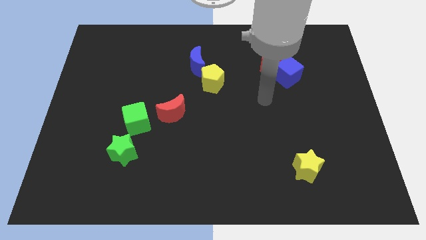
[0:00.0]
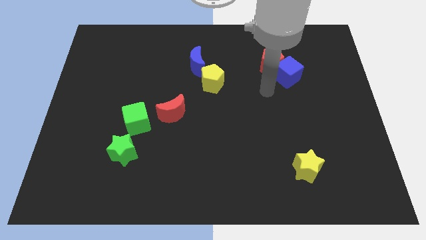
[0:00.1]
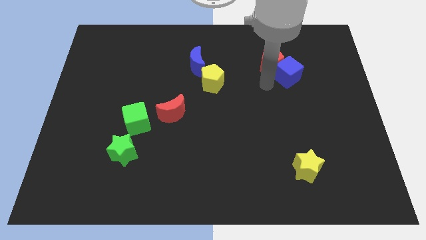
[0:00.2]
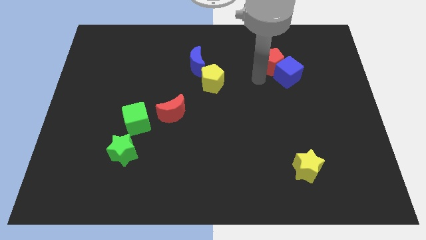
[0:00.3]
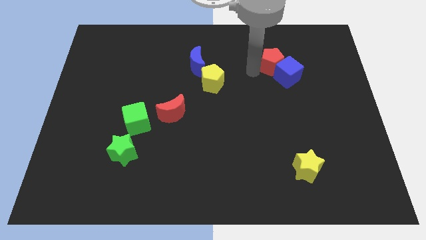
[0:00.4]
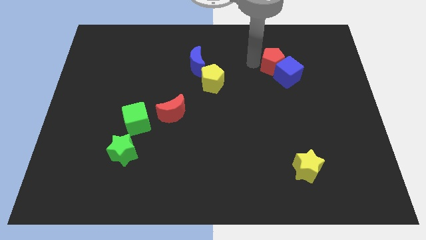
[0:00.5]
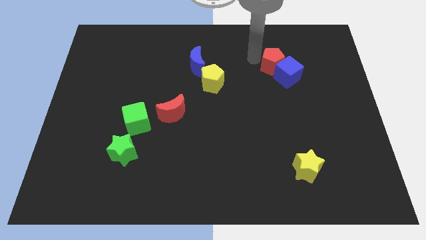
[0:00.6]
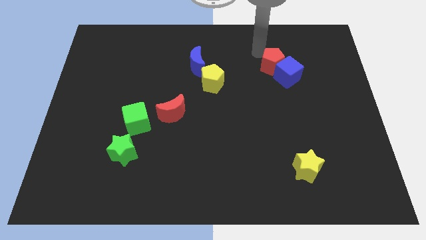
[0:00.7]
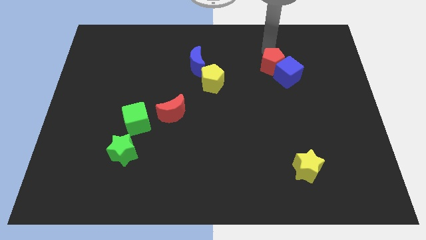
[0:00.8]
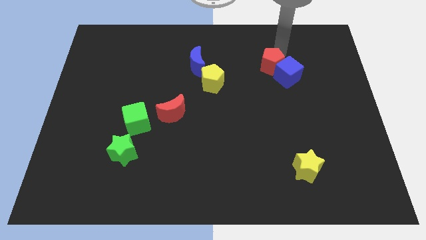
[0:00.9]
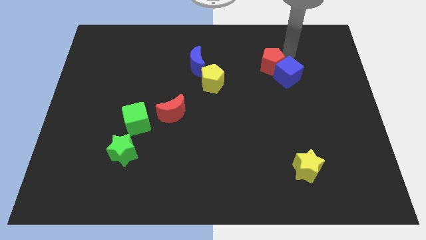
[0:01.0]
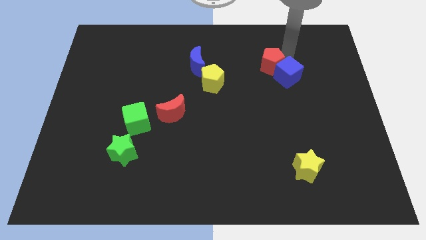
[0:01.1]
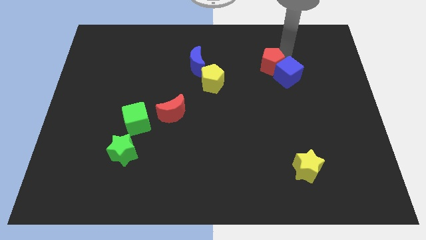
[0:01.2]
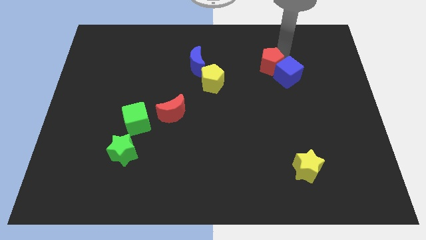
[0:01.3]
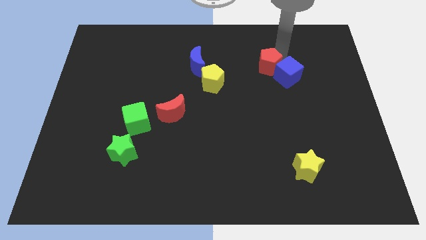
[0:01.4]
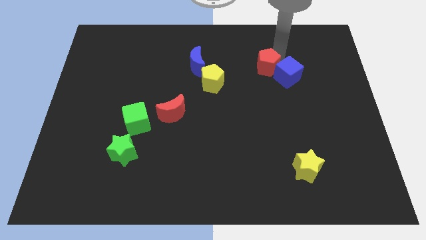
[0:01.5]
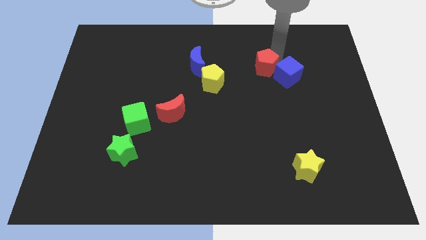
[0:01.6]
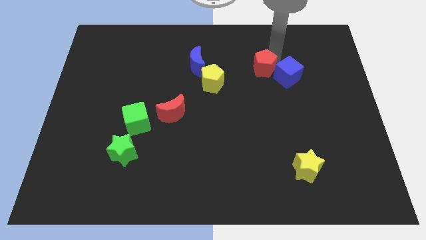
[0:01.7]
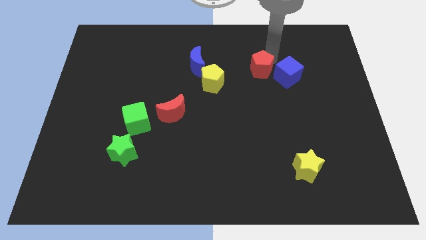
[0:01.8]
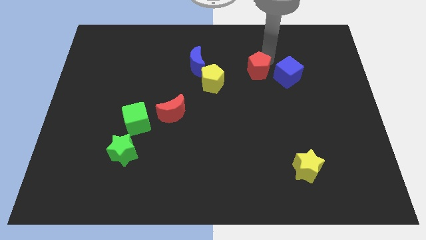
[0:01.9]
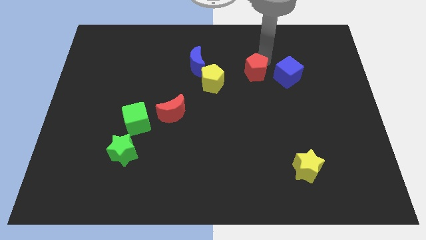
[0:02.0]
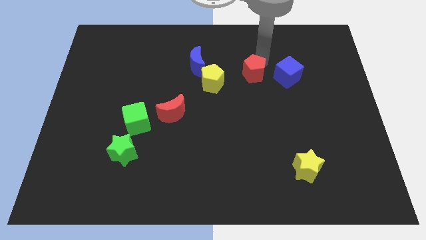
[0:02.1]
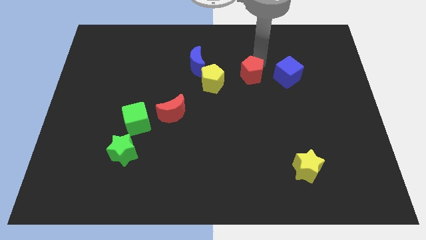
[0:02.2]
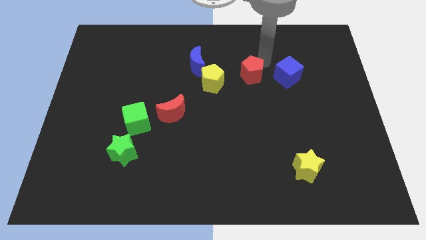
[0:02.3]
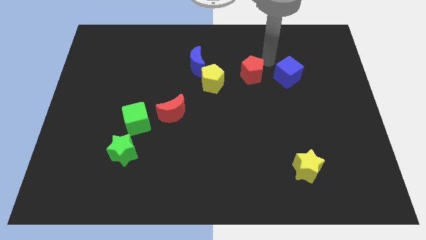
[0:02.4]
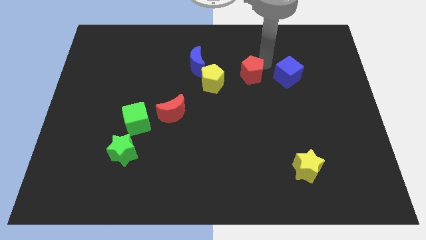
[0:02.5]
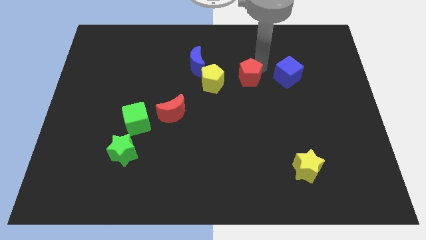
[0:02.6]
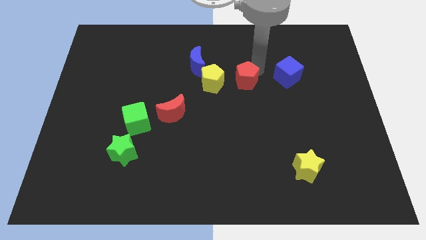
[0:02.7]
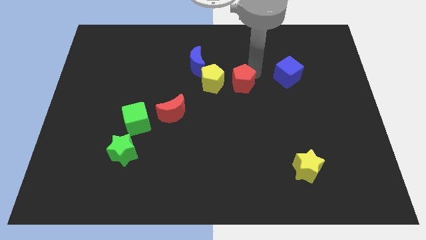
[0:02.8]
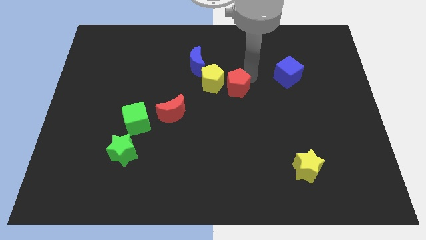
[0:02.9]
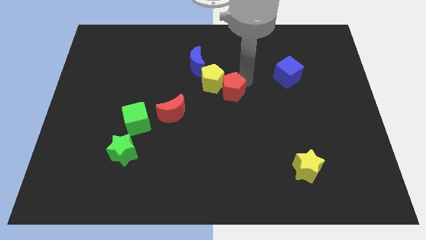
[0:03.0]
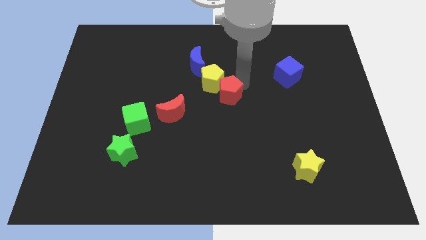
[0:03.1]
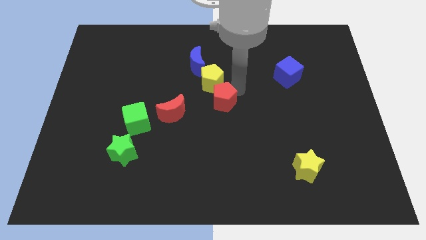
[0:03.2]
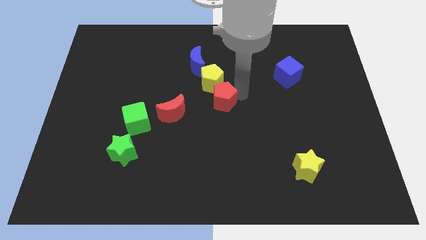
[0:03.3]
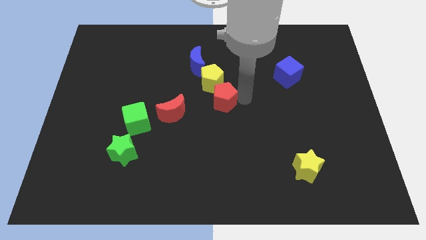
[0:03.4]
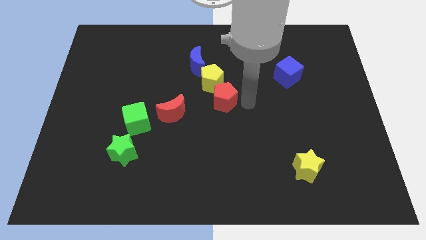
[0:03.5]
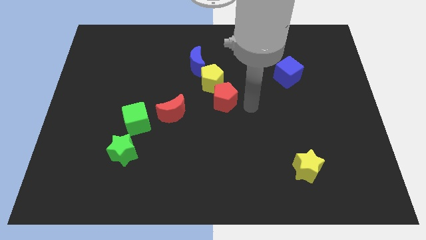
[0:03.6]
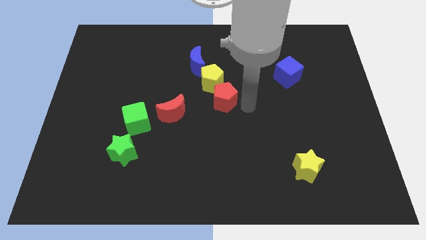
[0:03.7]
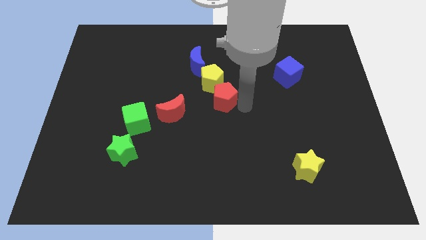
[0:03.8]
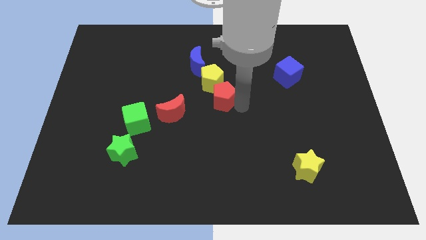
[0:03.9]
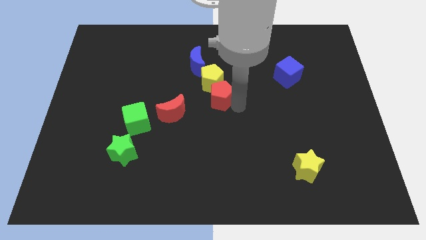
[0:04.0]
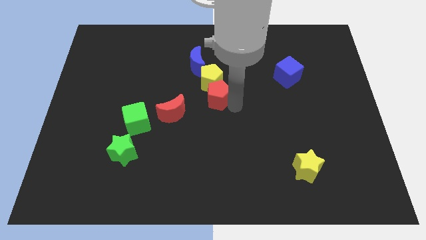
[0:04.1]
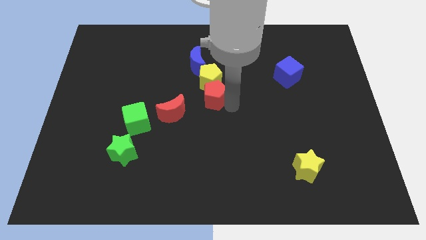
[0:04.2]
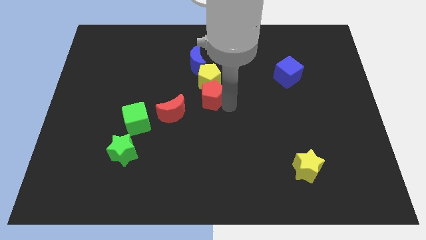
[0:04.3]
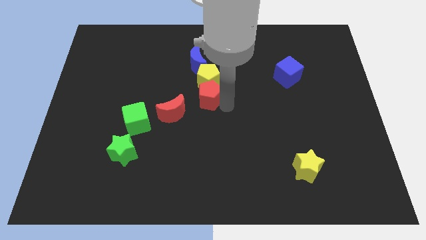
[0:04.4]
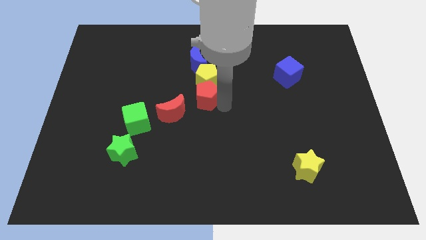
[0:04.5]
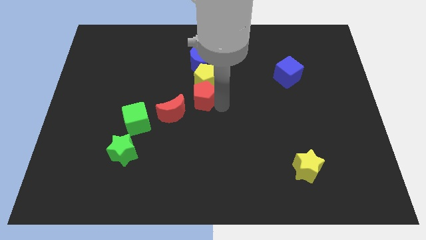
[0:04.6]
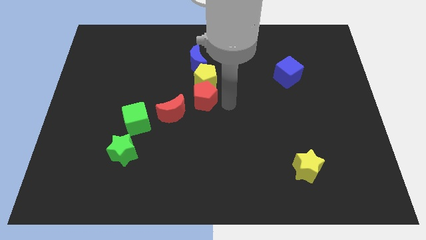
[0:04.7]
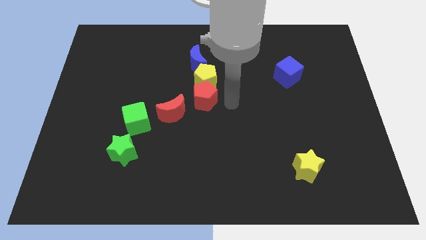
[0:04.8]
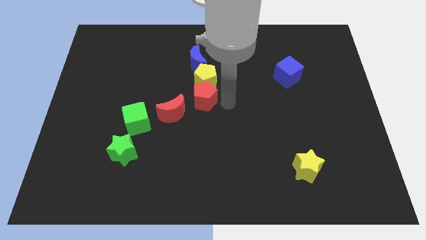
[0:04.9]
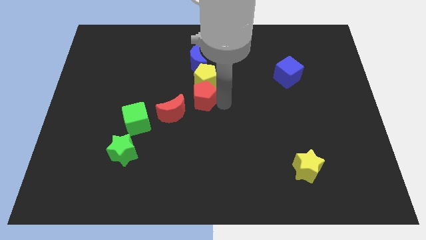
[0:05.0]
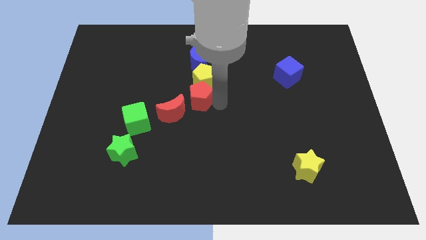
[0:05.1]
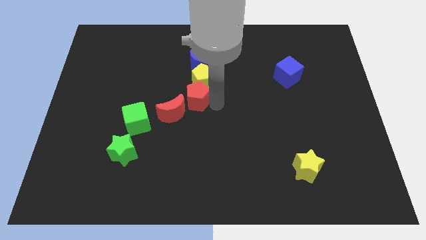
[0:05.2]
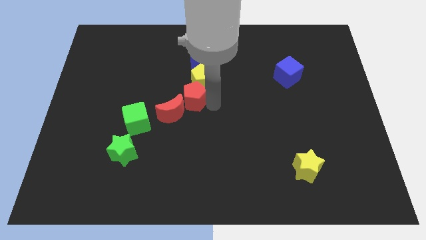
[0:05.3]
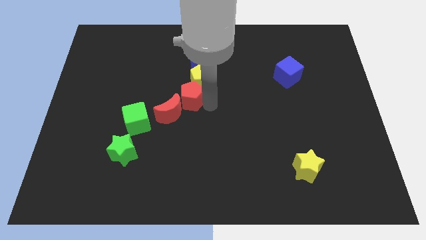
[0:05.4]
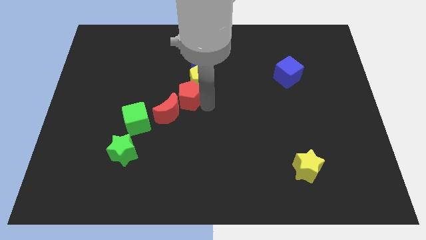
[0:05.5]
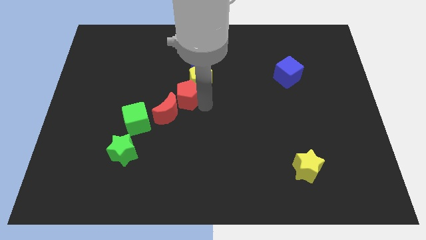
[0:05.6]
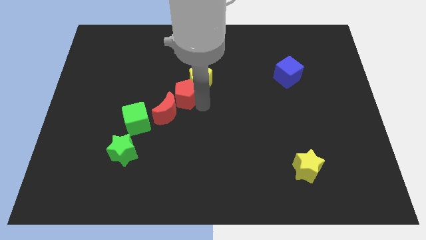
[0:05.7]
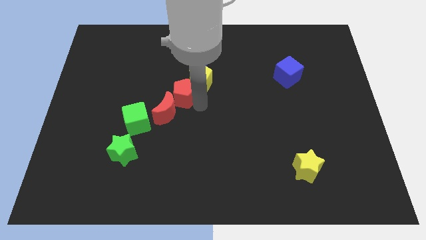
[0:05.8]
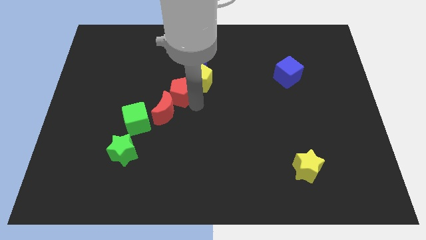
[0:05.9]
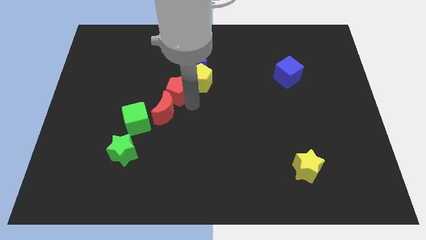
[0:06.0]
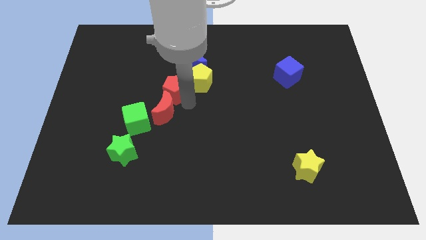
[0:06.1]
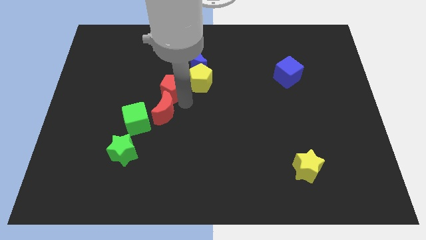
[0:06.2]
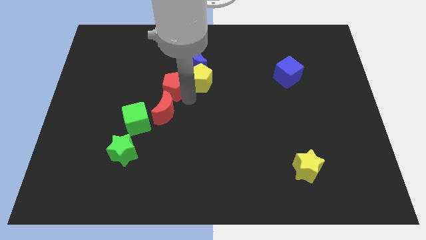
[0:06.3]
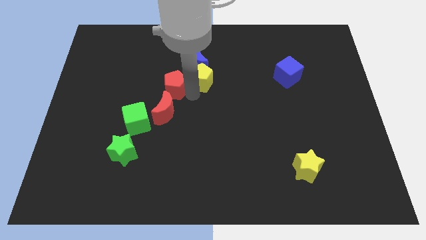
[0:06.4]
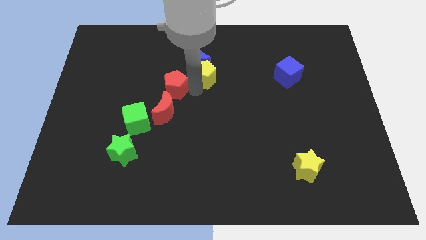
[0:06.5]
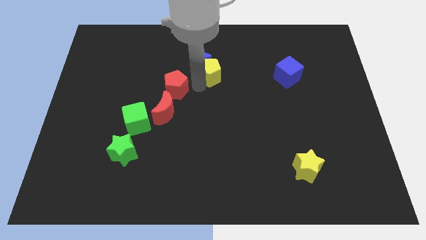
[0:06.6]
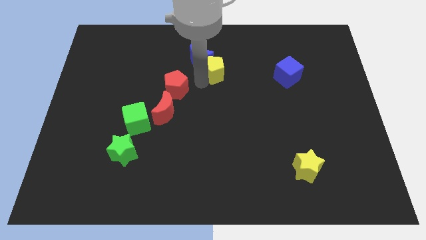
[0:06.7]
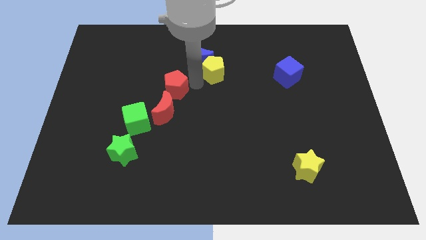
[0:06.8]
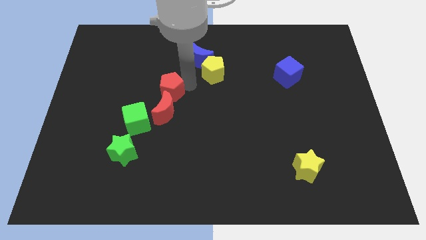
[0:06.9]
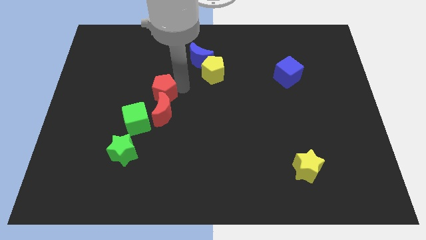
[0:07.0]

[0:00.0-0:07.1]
push the red pentagon diagonally up and to the left of the red moon

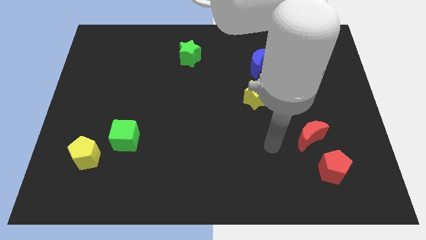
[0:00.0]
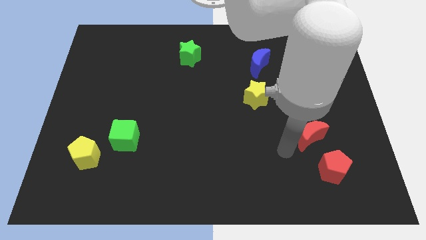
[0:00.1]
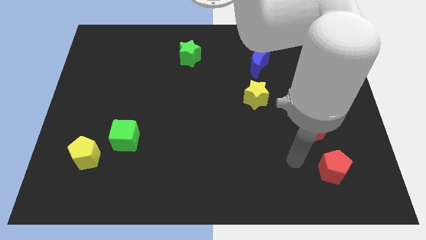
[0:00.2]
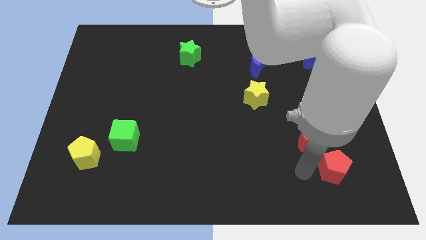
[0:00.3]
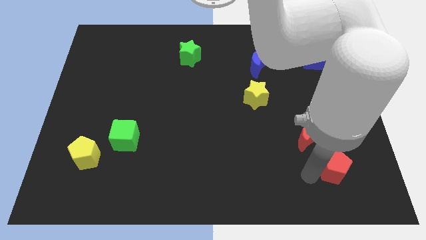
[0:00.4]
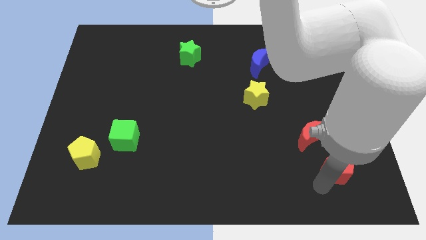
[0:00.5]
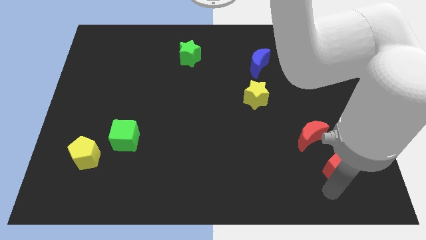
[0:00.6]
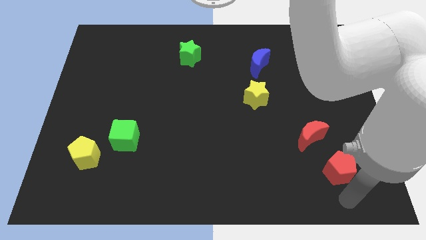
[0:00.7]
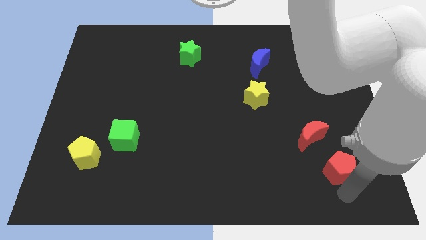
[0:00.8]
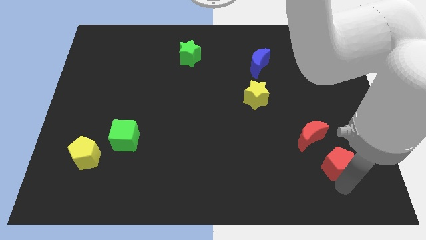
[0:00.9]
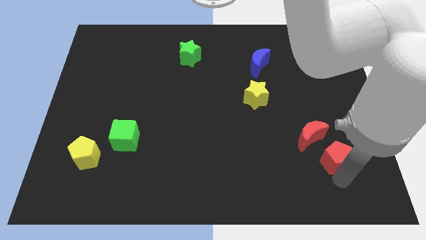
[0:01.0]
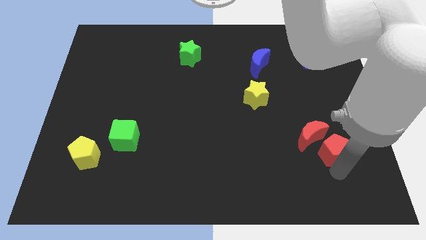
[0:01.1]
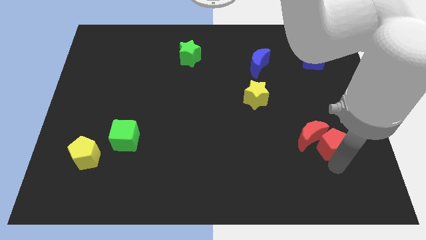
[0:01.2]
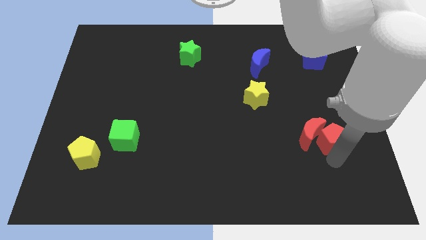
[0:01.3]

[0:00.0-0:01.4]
put the red pentagon to the top right side of the red moon
